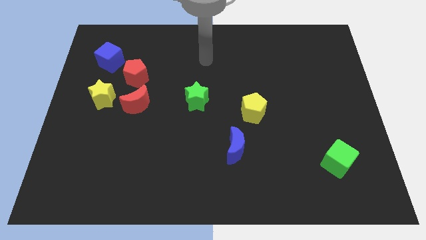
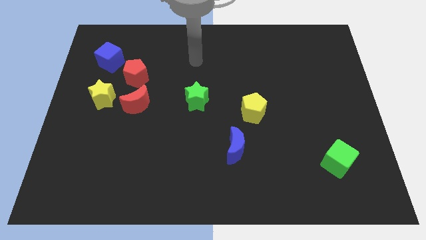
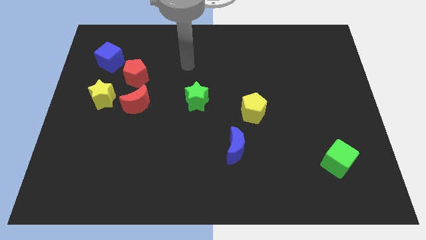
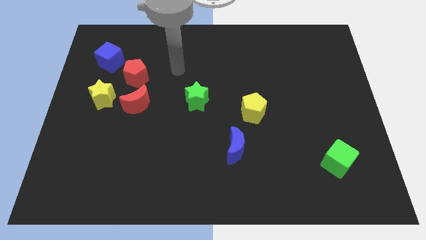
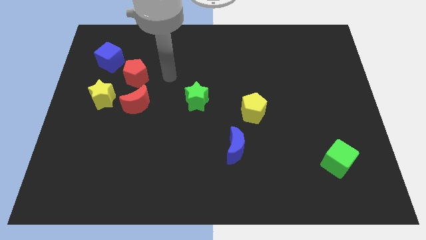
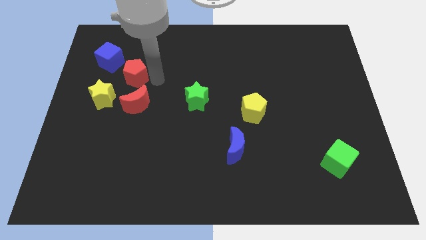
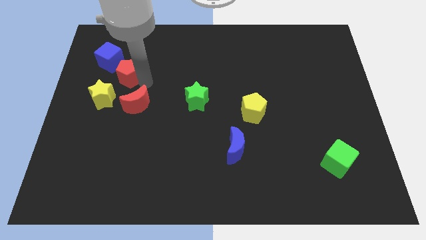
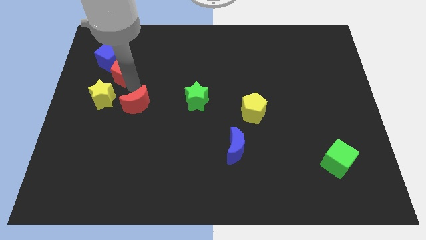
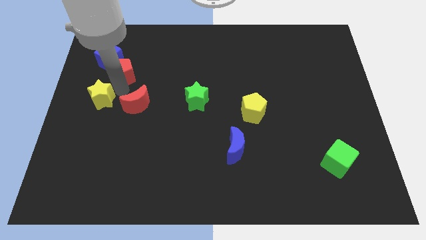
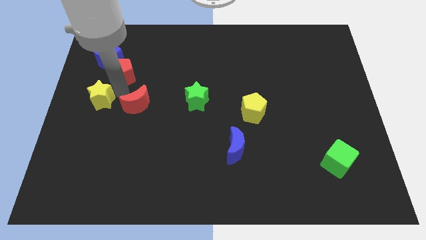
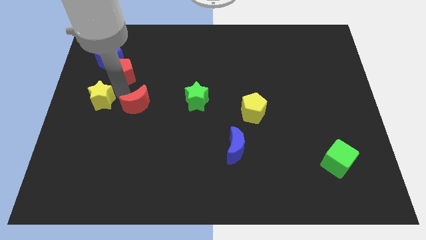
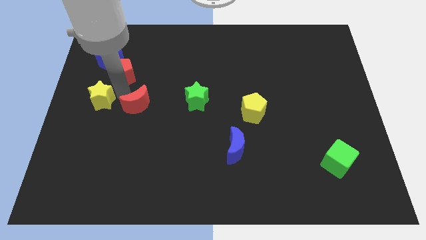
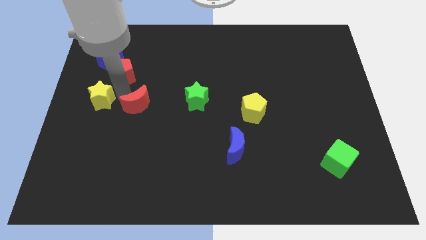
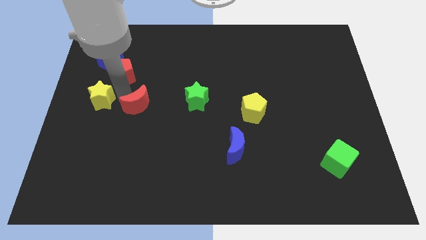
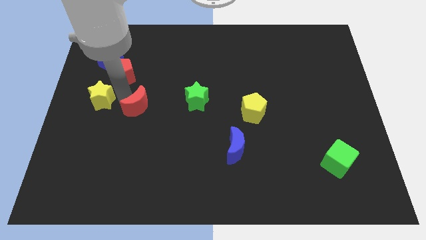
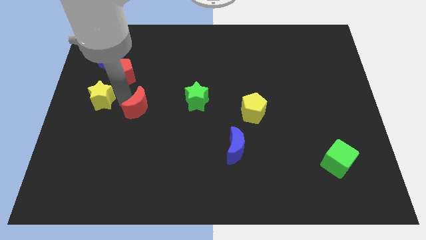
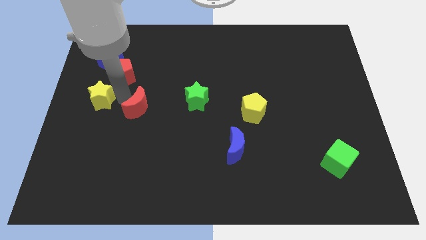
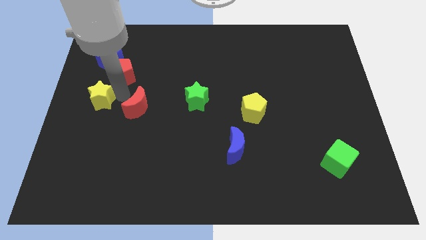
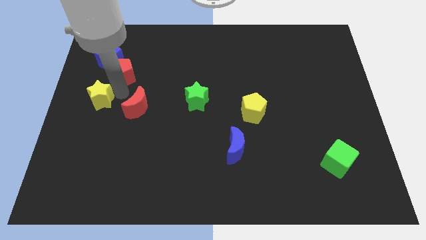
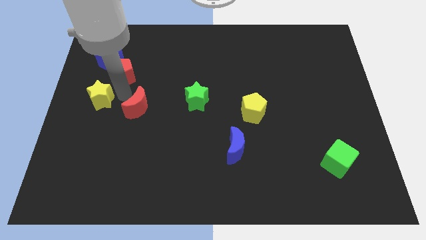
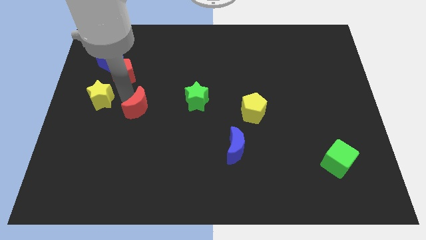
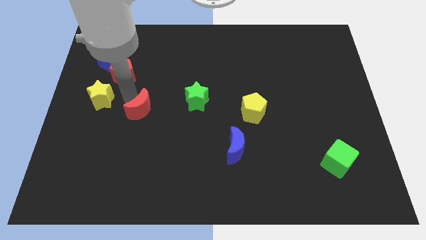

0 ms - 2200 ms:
move the red moon away from the yellow star and red pentagon

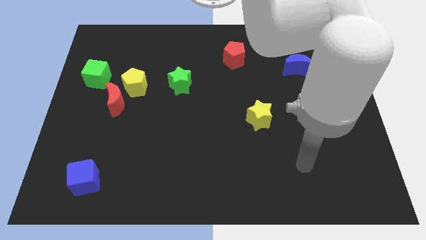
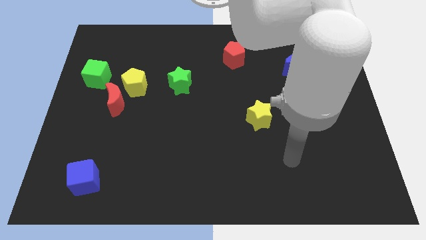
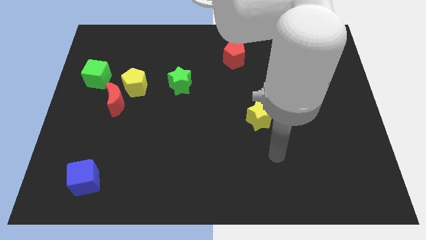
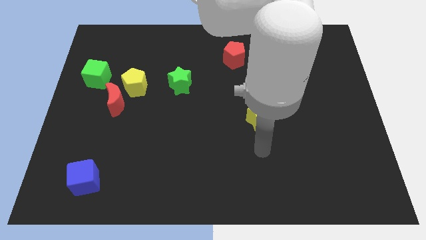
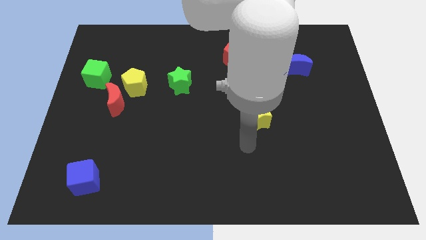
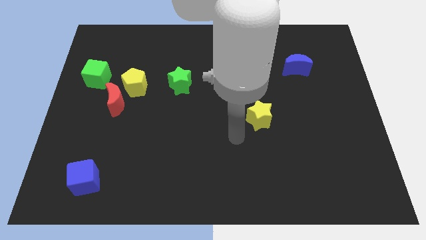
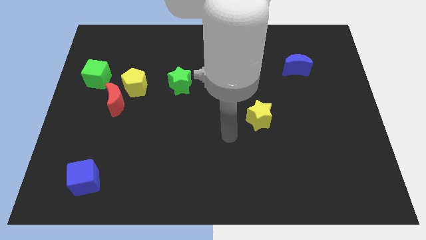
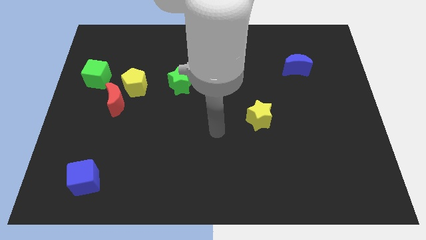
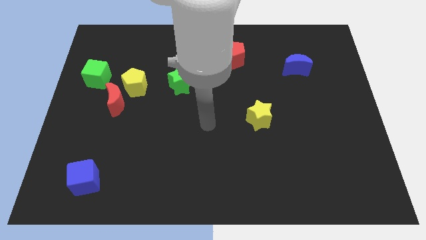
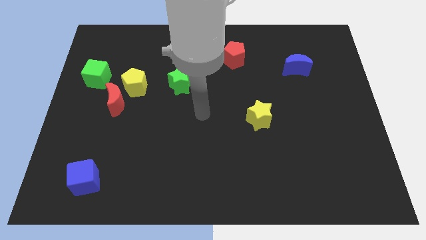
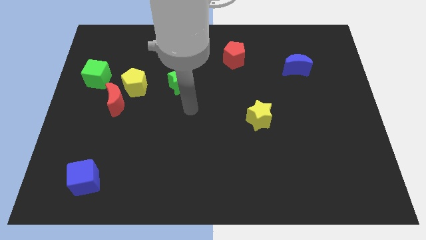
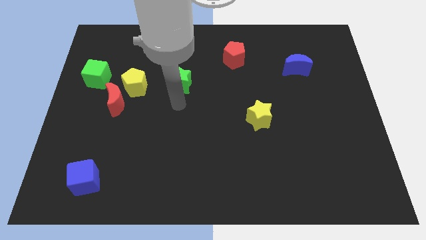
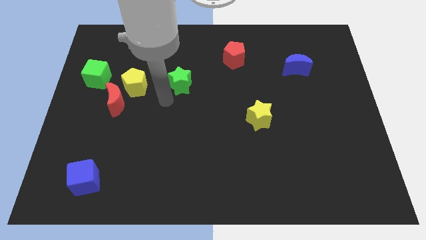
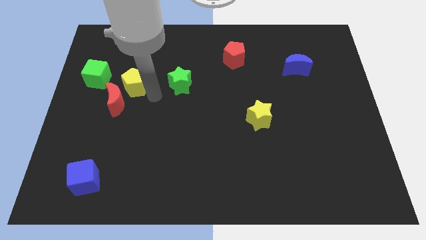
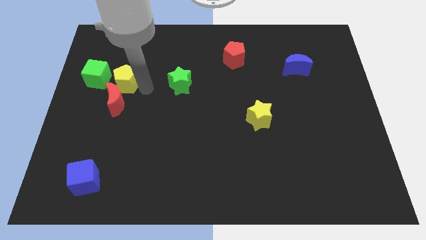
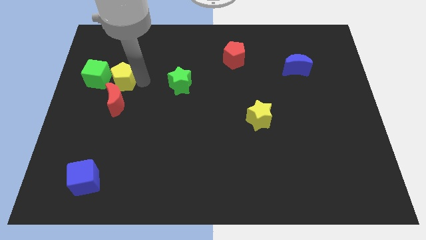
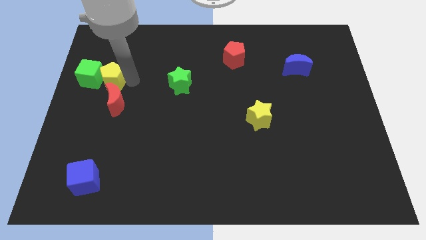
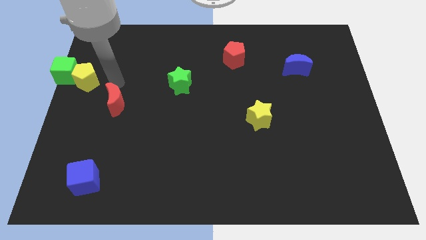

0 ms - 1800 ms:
move the red moon away from the yellow pentagon and green cube

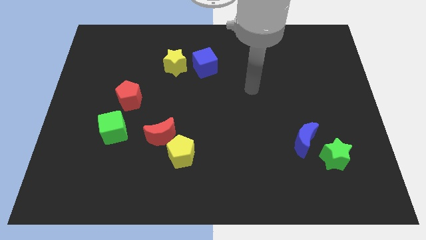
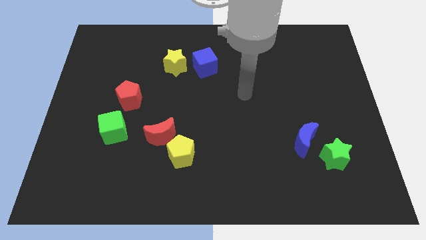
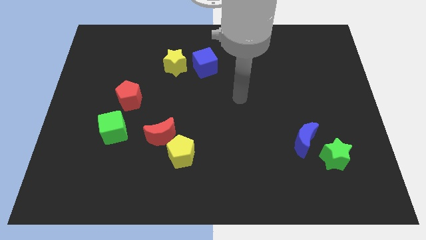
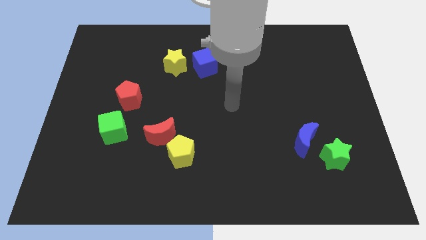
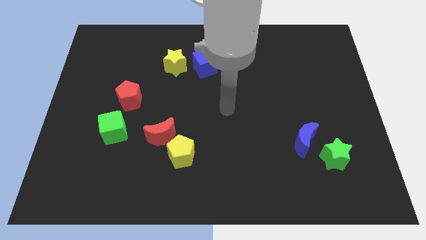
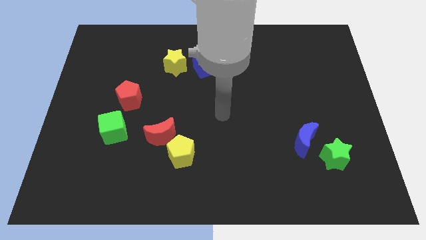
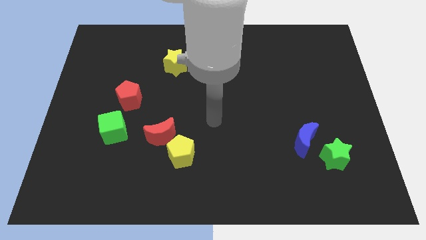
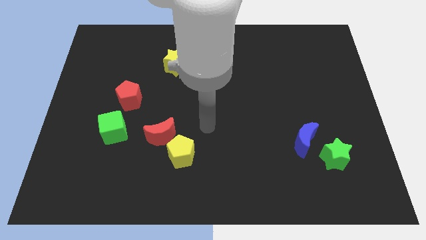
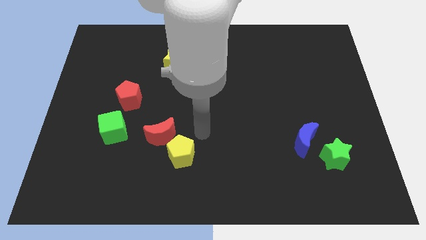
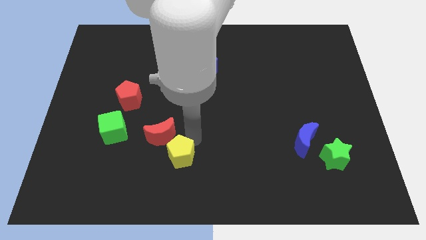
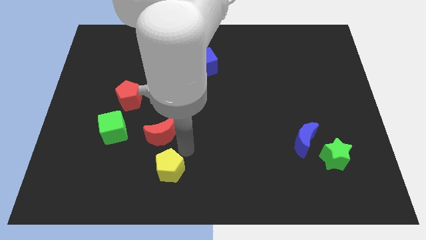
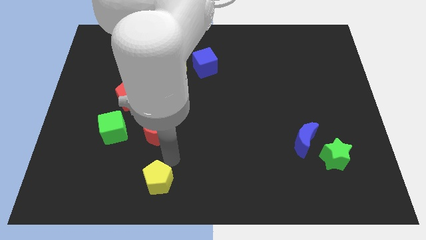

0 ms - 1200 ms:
move the red moon away from the yellow pentagon

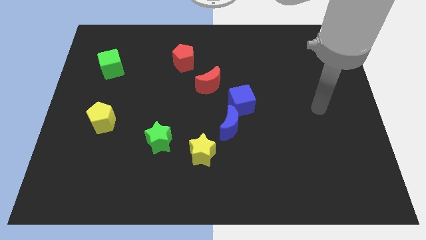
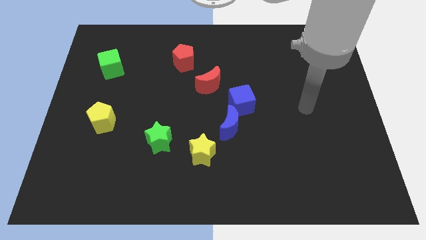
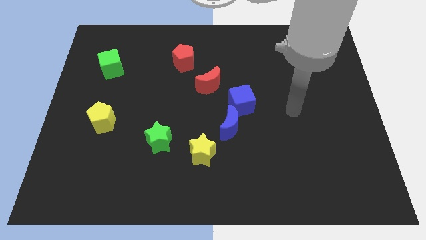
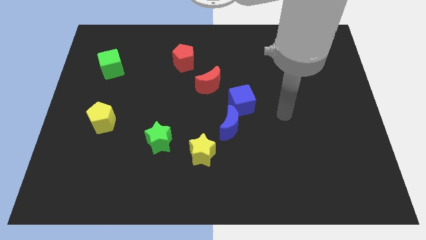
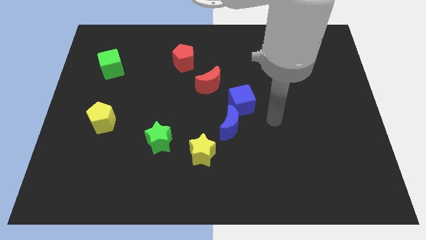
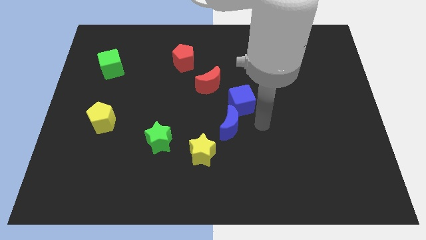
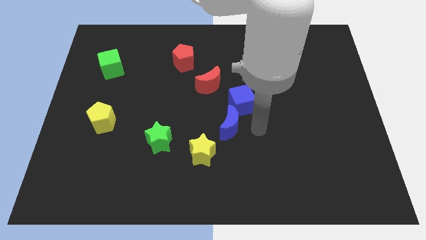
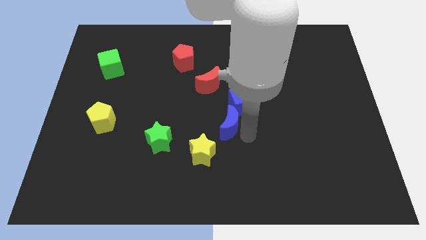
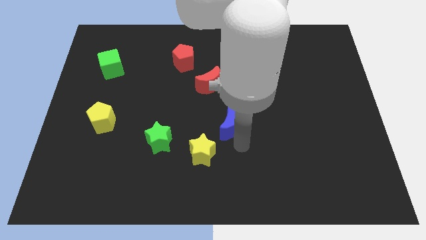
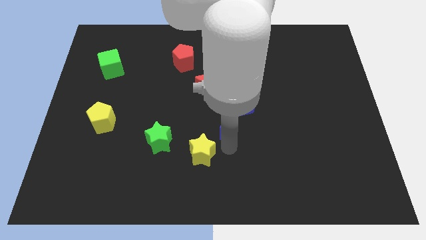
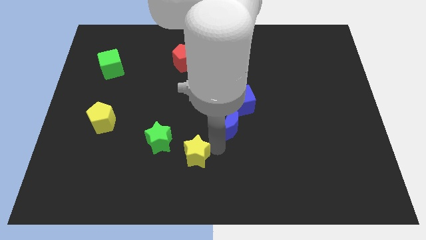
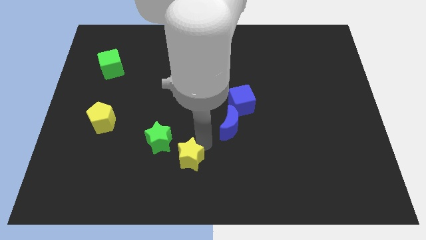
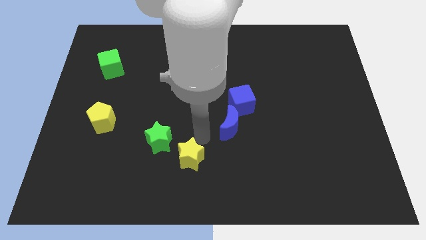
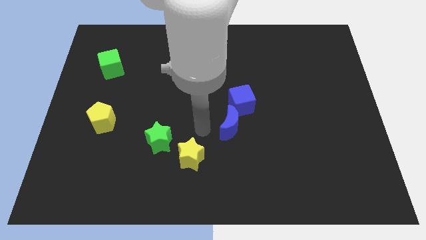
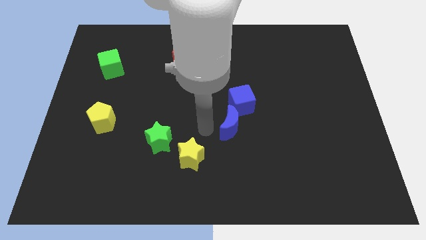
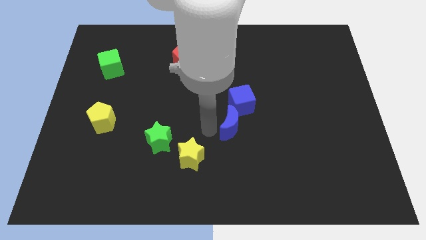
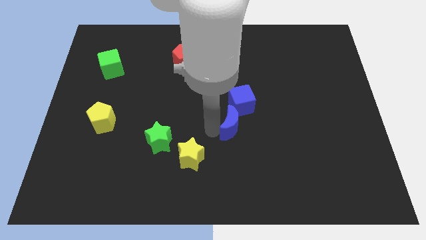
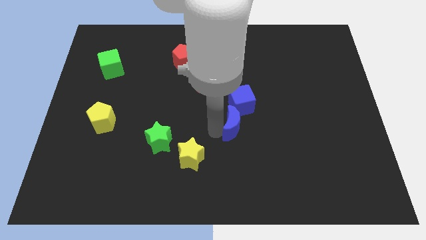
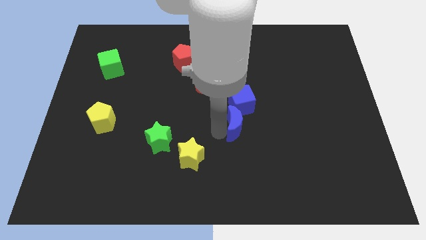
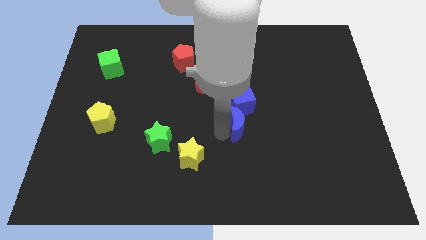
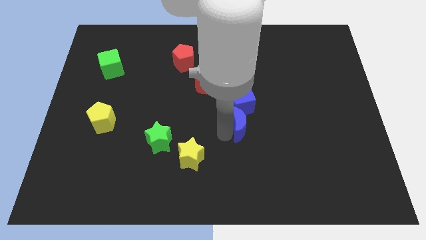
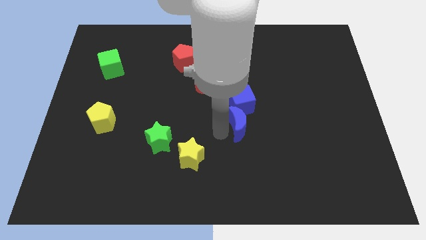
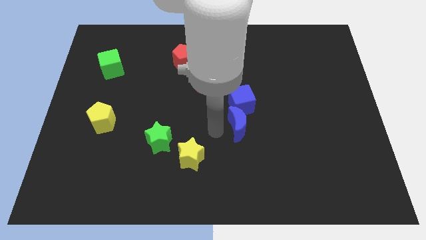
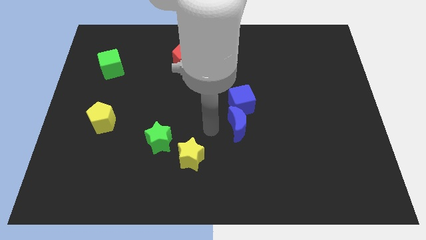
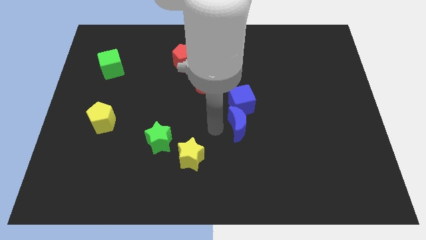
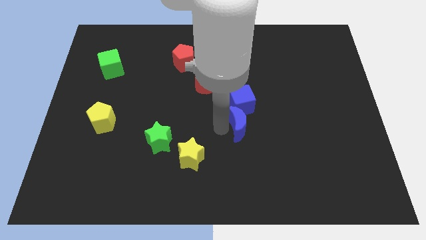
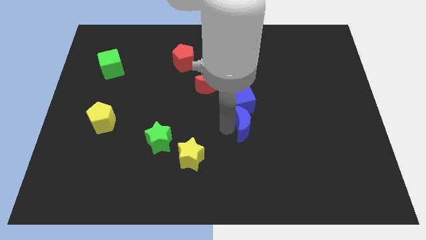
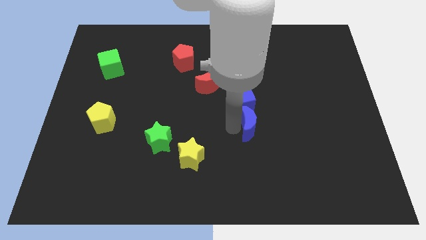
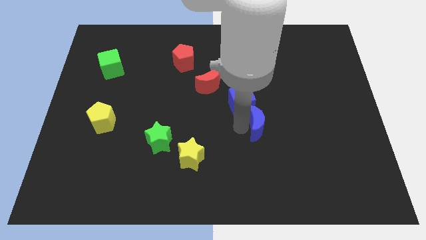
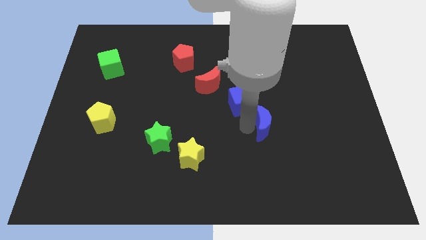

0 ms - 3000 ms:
move the blue moon away from the blue cube and yellow star

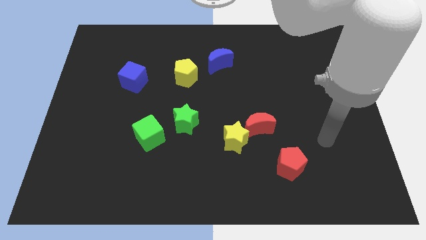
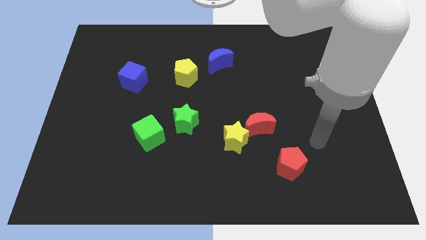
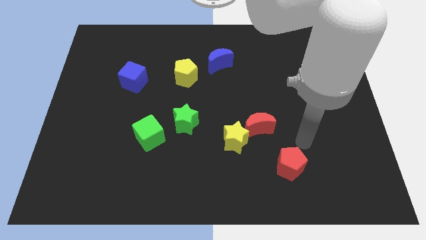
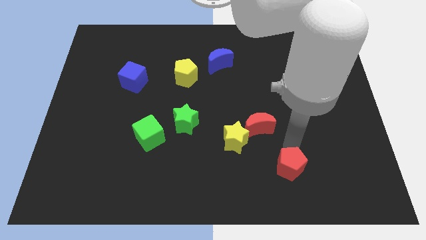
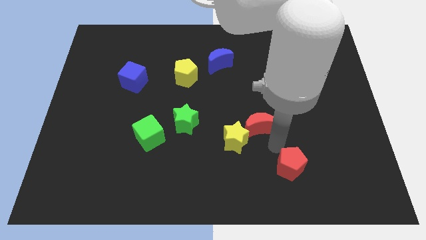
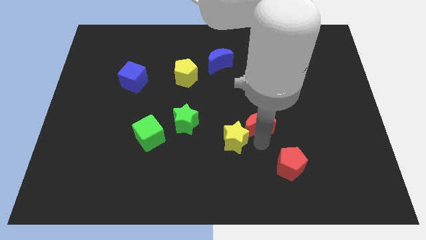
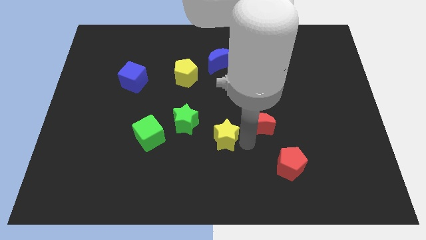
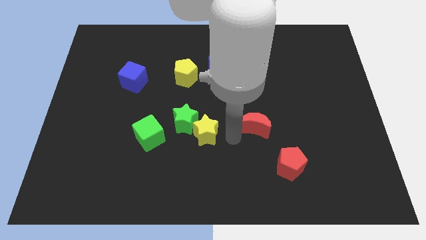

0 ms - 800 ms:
move the red moon away from the yellow star

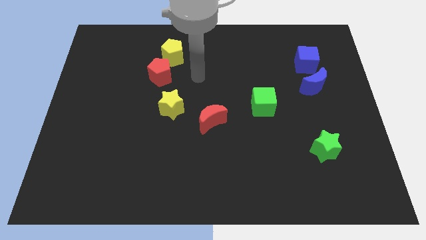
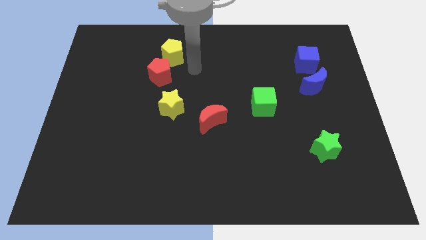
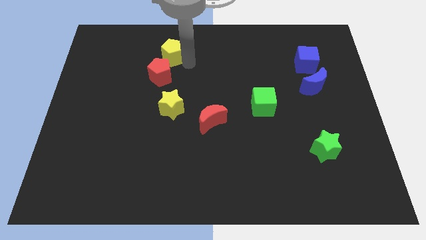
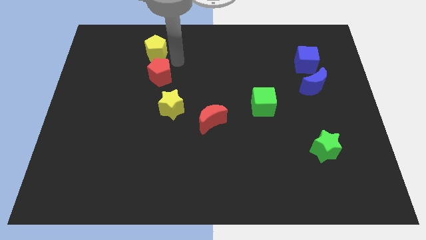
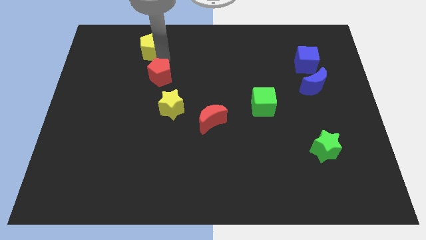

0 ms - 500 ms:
separate the red pentagon from the yellow pentagon
